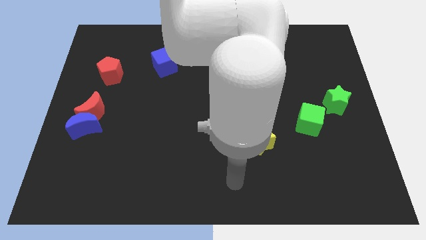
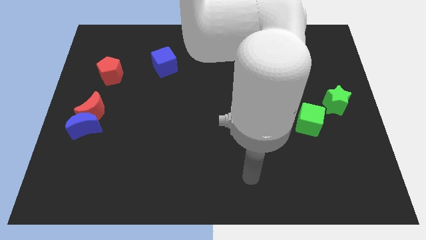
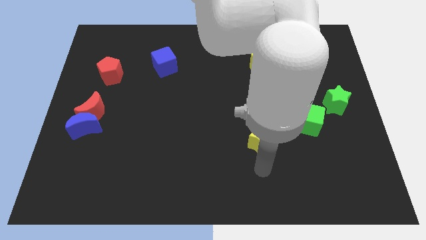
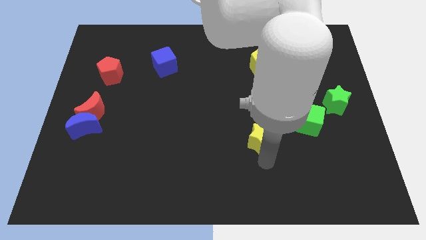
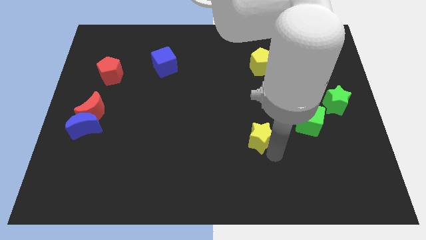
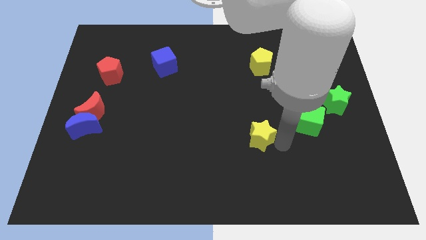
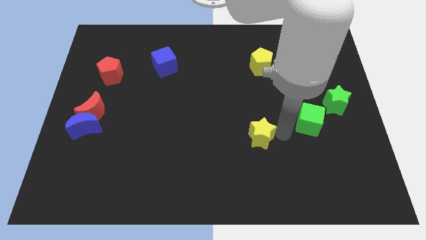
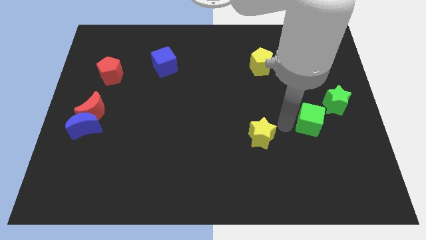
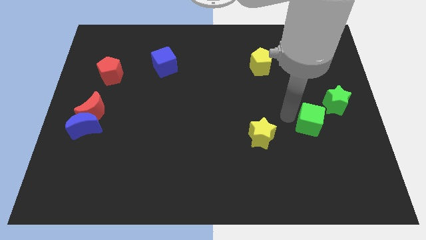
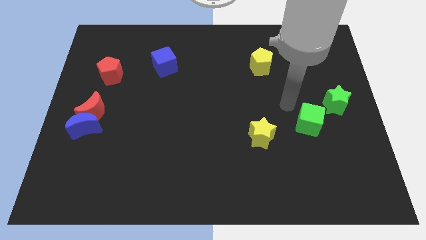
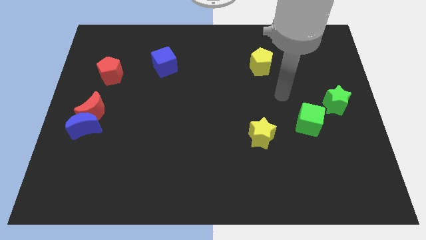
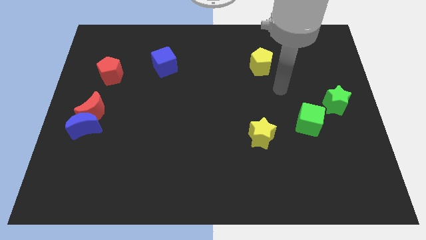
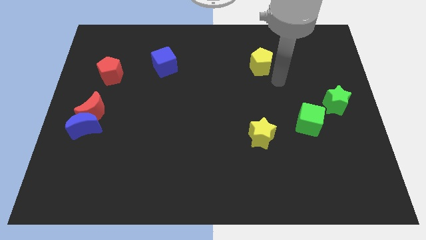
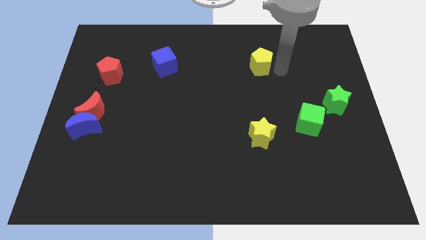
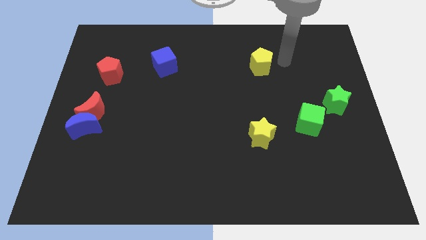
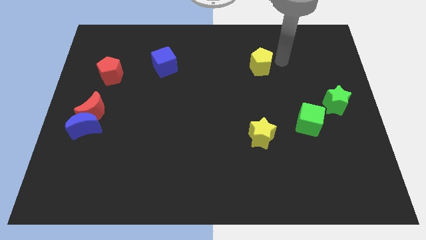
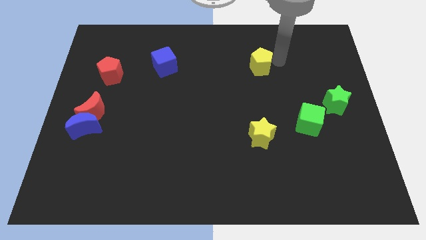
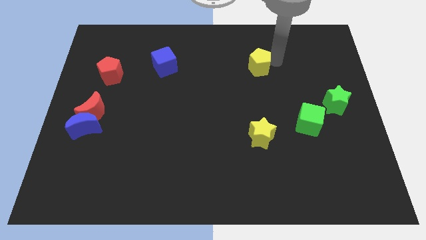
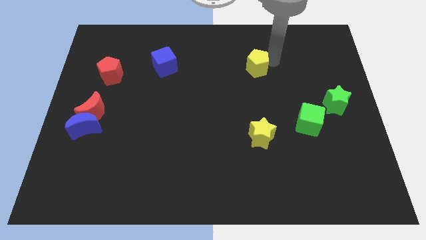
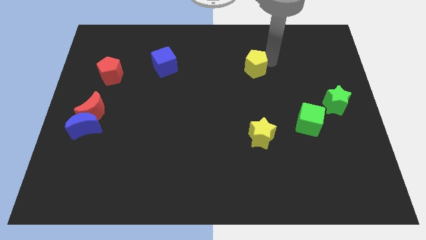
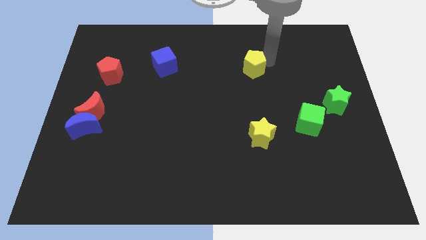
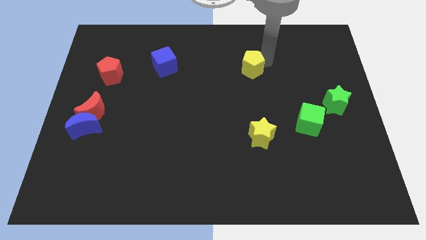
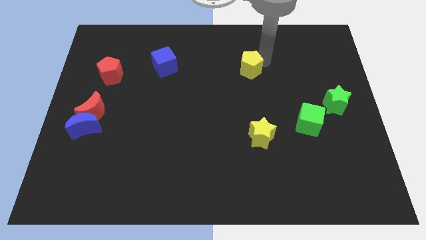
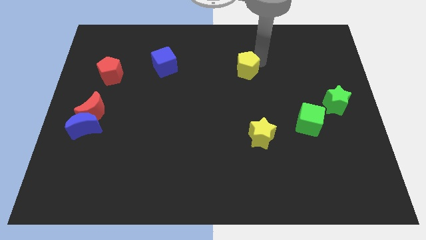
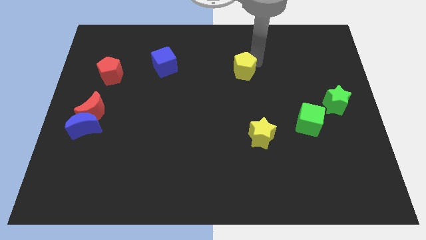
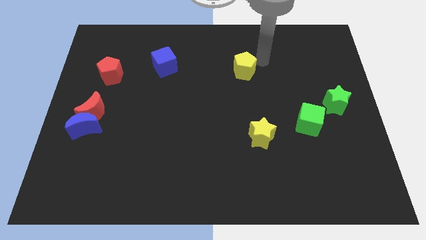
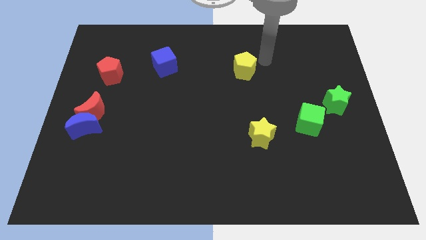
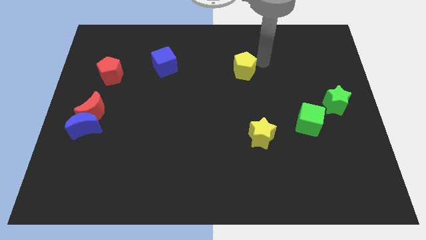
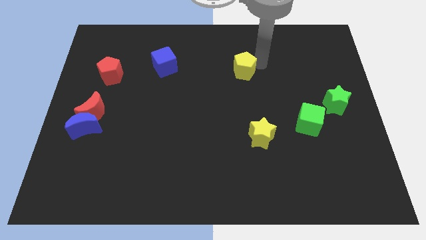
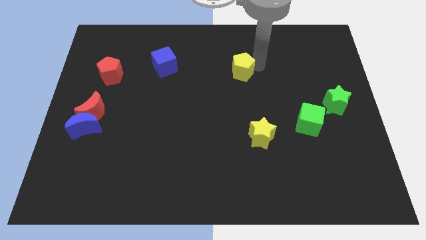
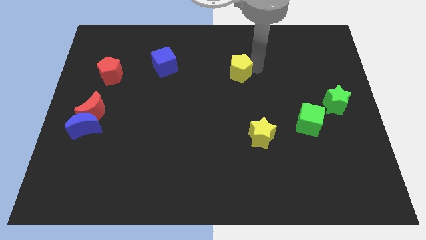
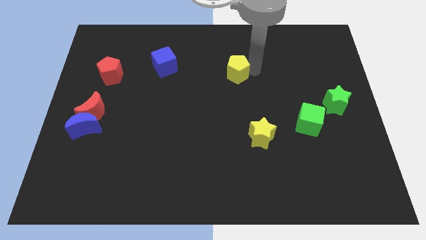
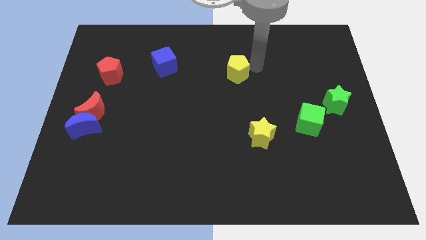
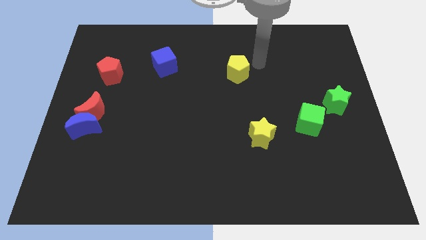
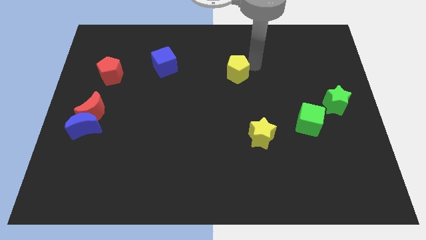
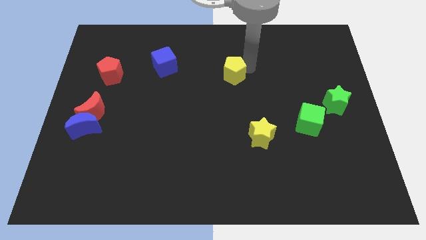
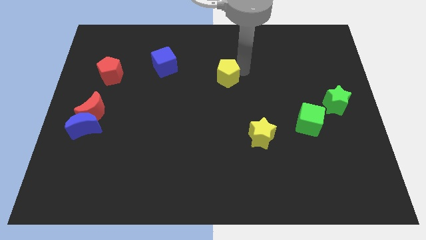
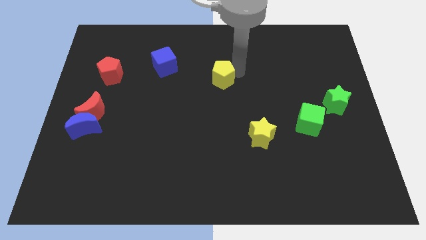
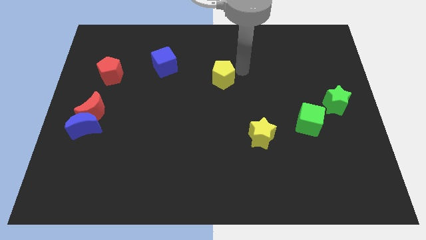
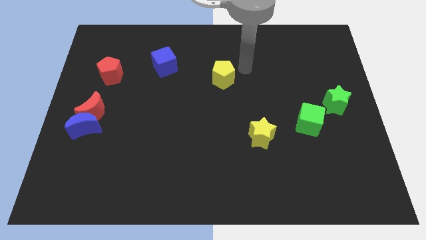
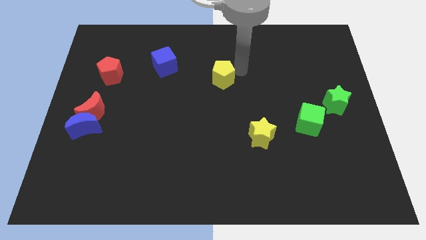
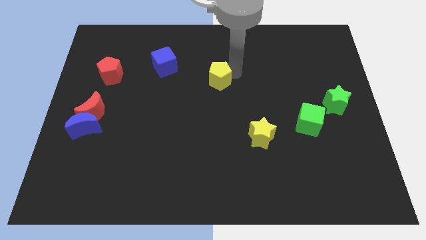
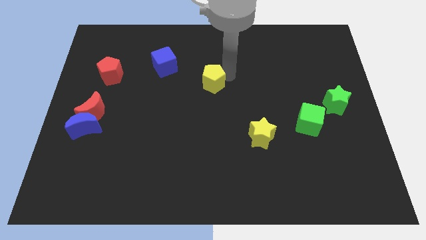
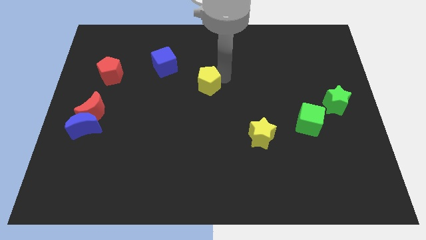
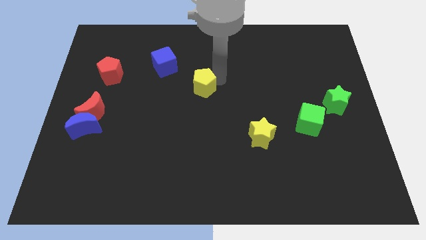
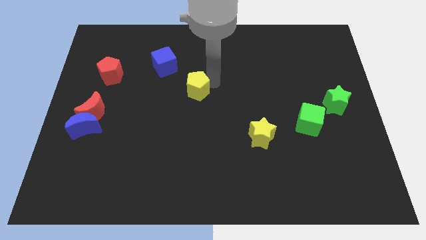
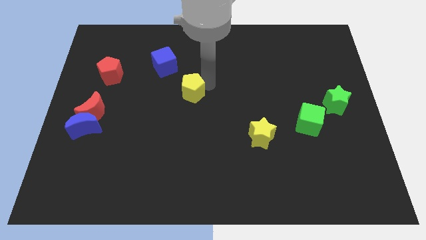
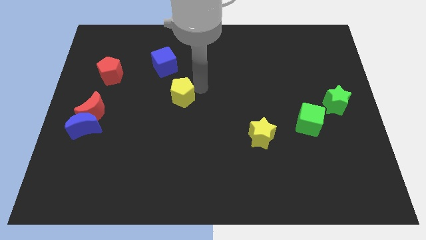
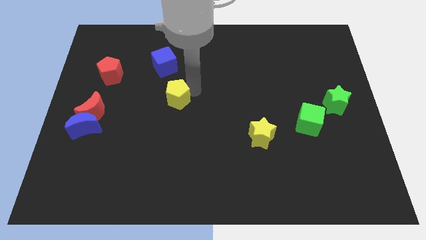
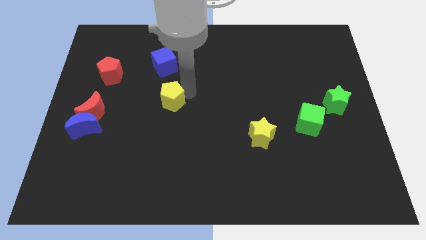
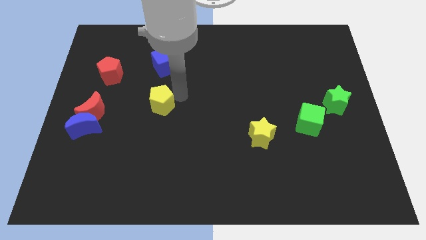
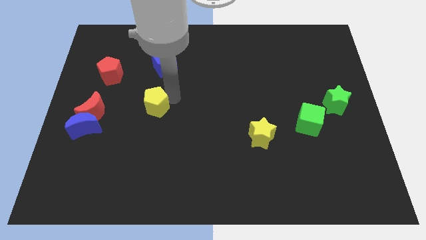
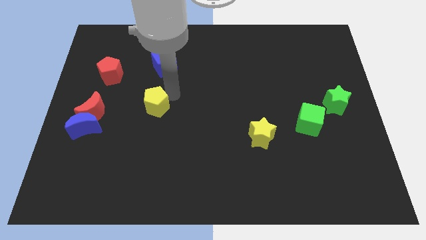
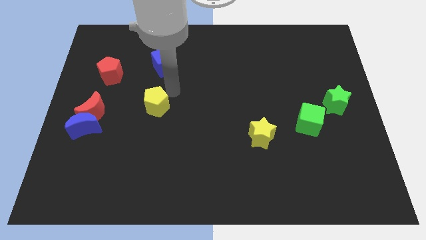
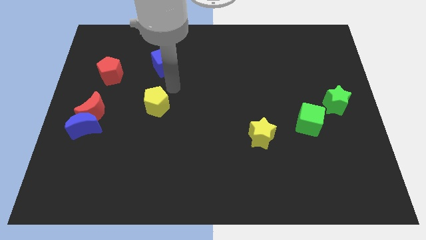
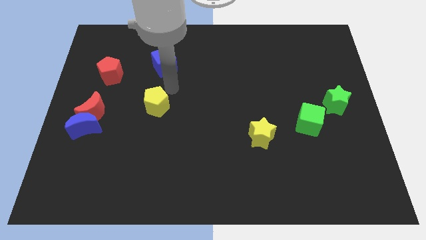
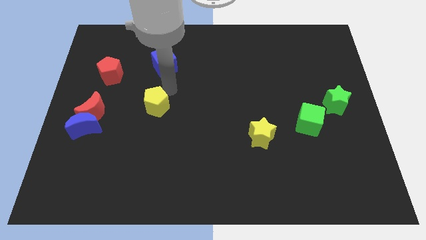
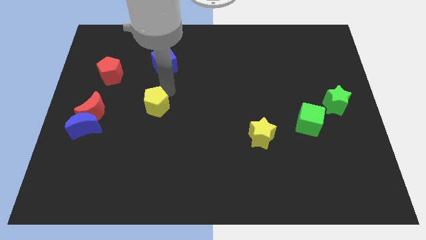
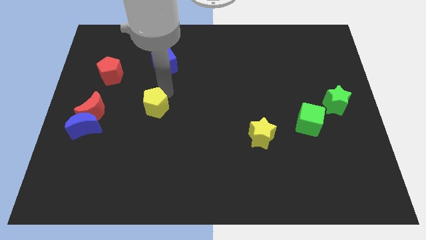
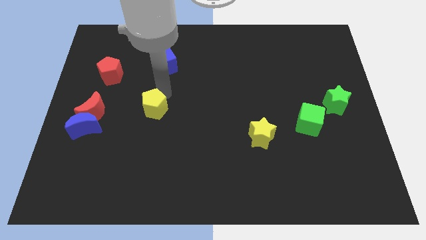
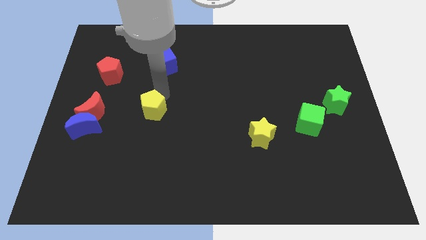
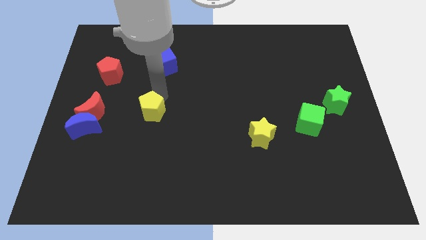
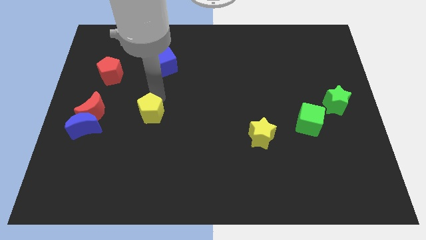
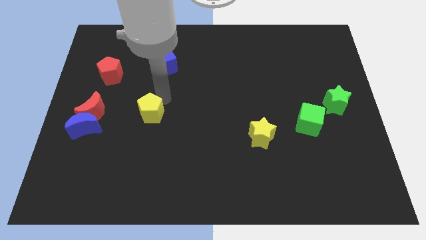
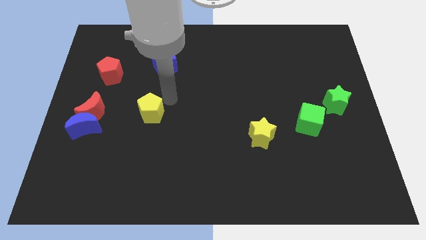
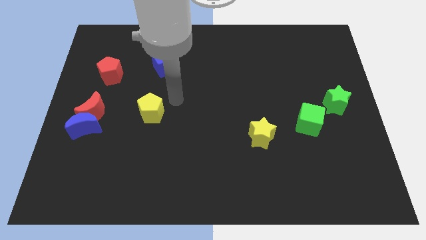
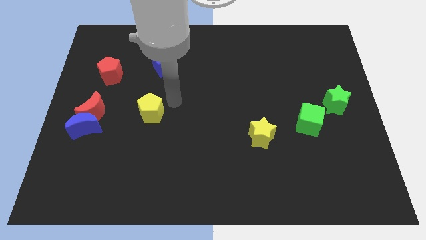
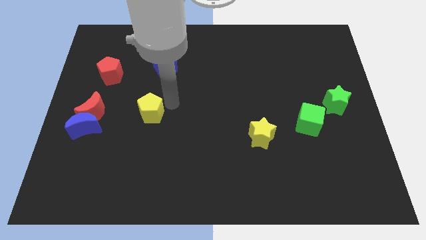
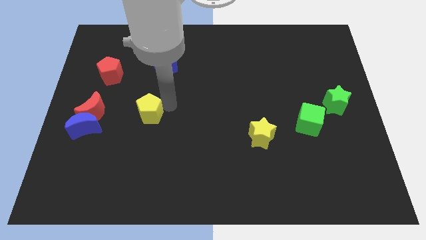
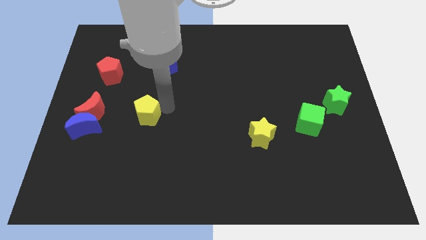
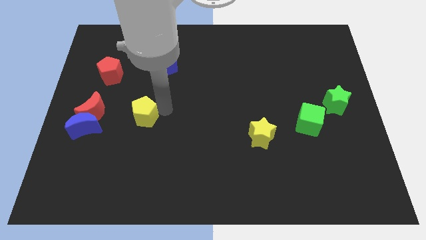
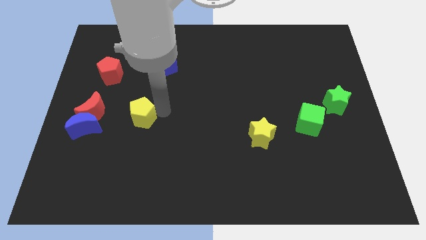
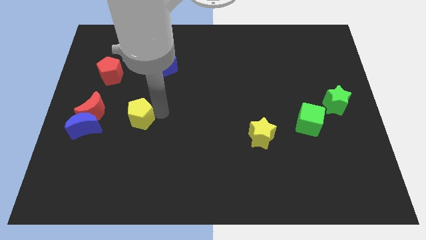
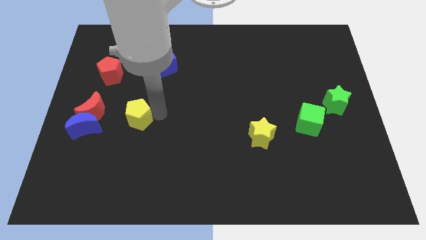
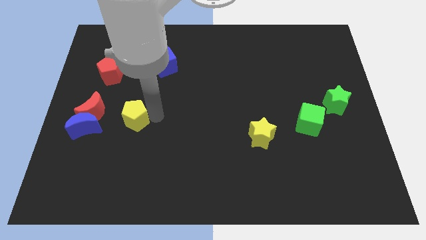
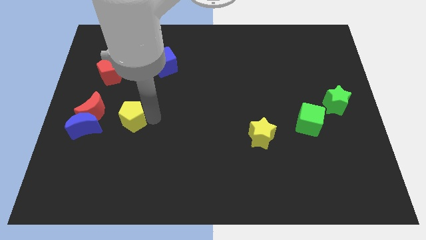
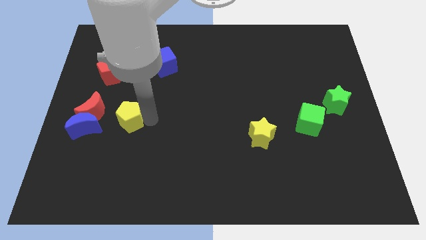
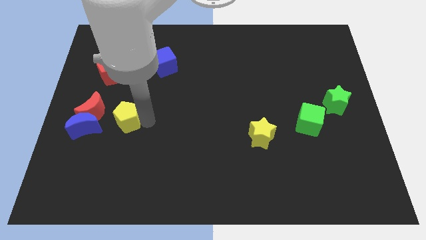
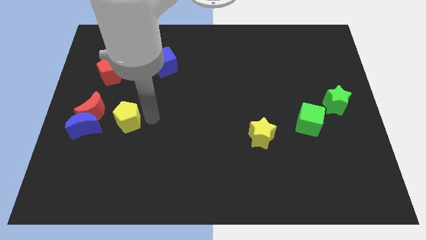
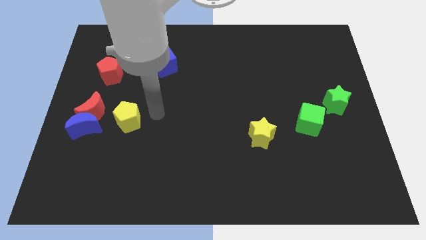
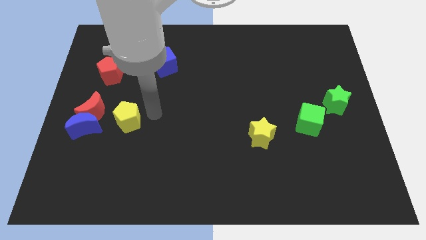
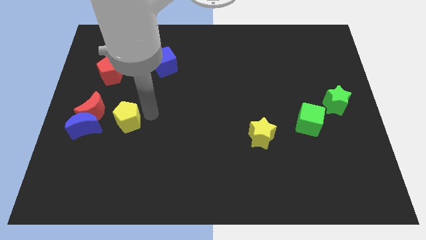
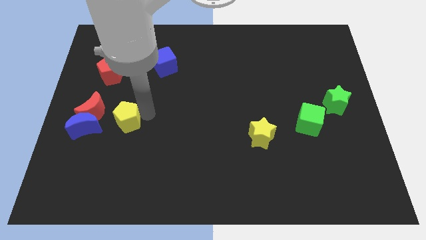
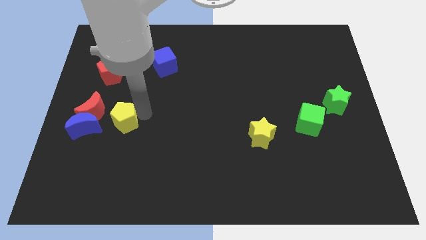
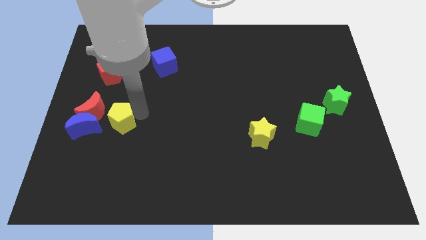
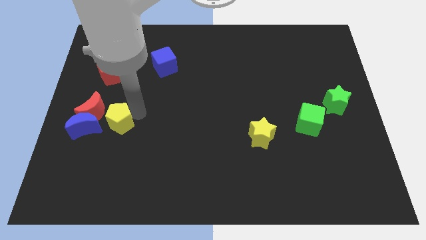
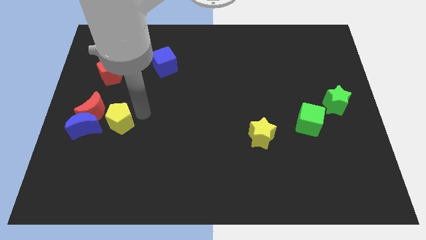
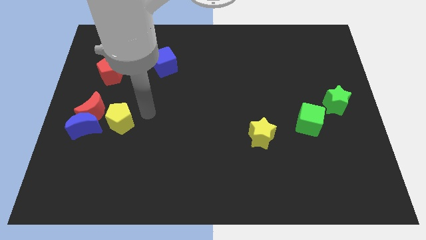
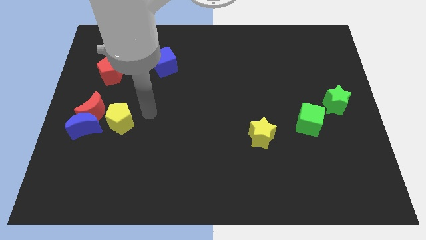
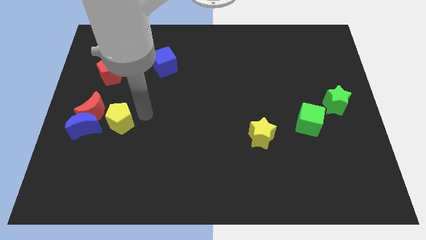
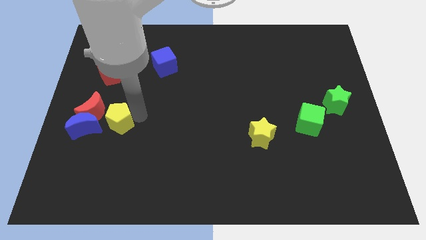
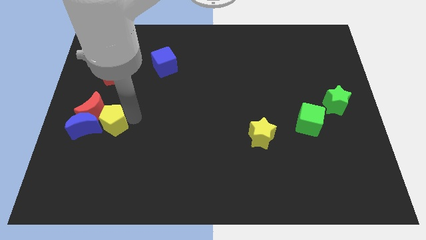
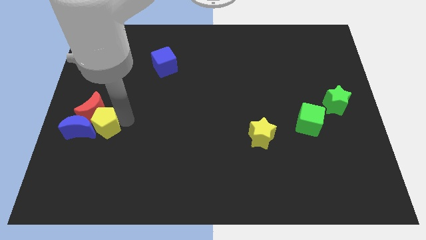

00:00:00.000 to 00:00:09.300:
put the yellow pentagon towards the blue moon
